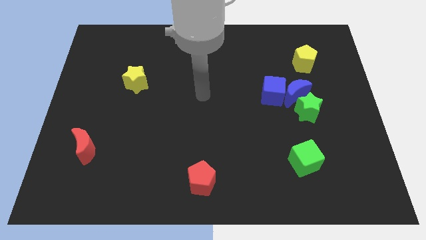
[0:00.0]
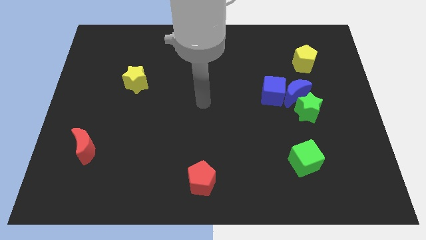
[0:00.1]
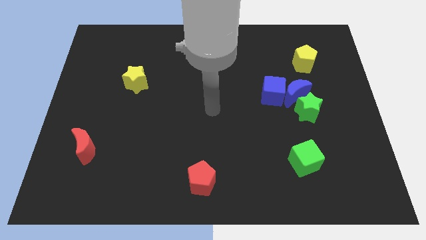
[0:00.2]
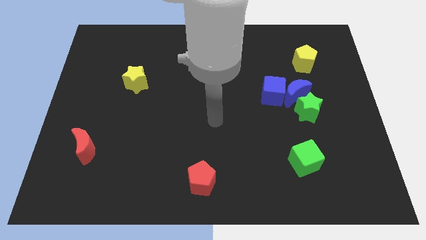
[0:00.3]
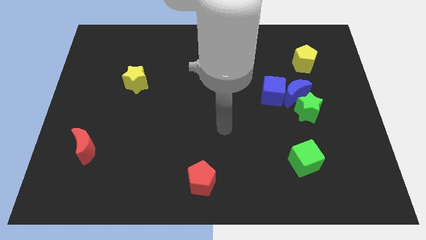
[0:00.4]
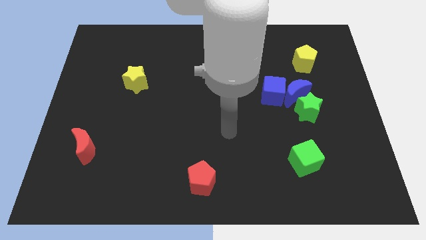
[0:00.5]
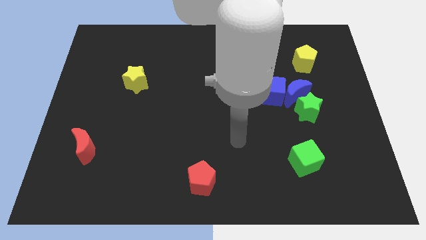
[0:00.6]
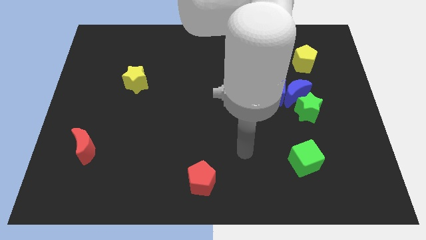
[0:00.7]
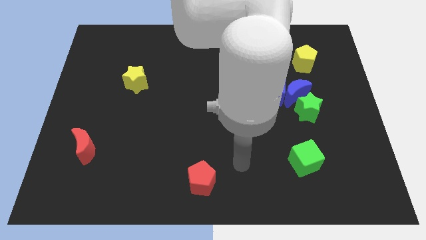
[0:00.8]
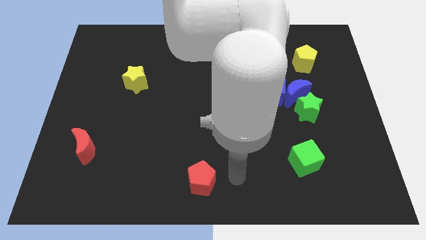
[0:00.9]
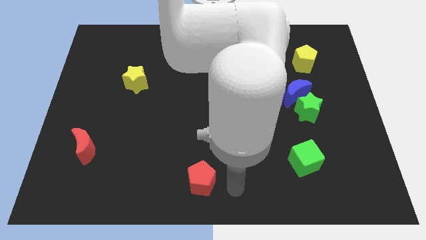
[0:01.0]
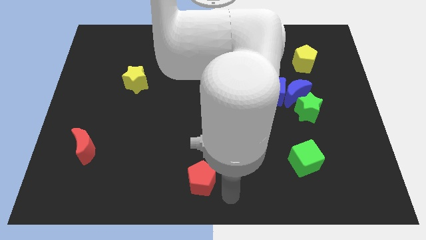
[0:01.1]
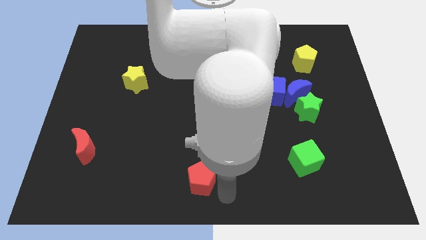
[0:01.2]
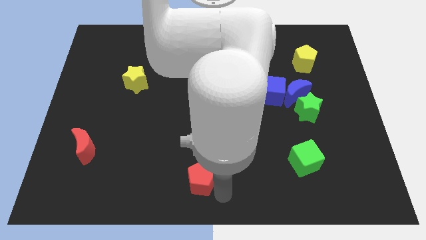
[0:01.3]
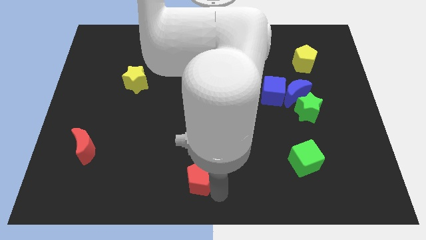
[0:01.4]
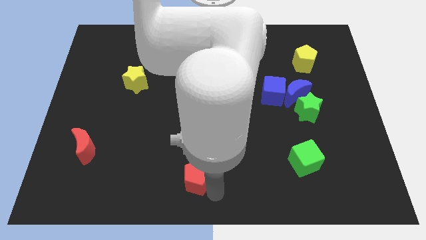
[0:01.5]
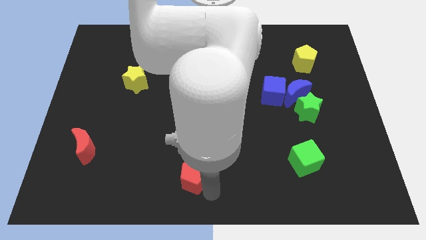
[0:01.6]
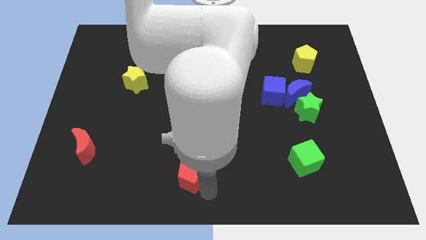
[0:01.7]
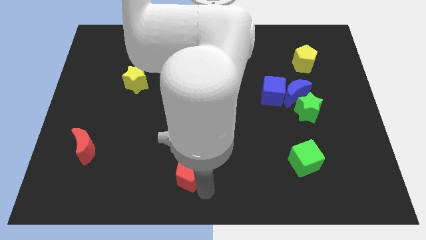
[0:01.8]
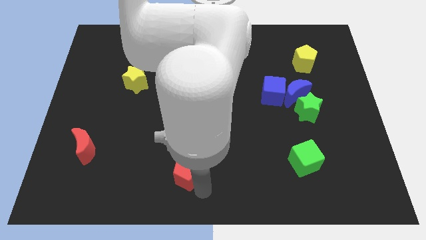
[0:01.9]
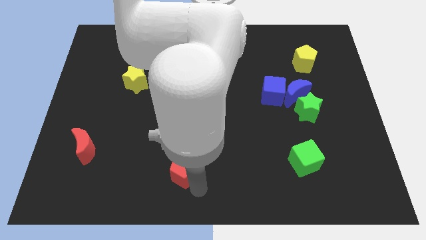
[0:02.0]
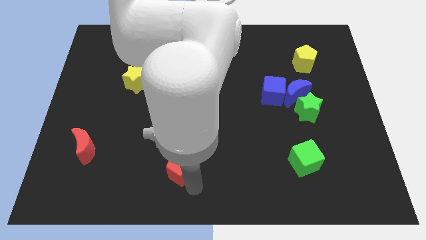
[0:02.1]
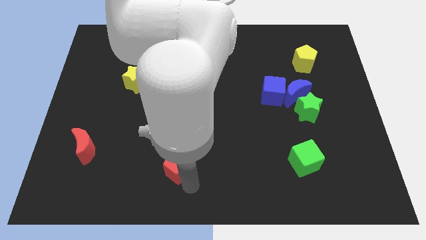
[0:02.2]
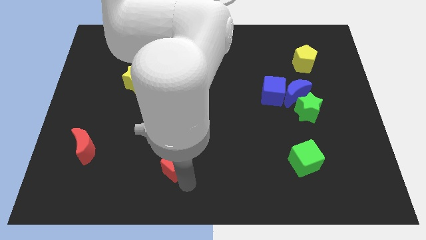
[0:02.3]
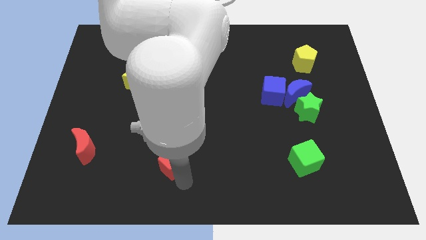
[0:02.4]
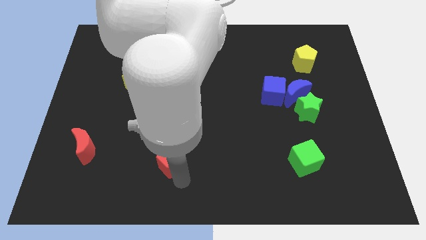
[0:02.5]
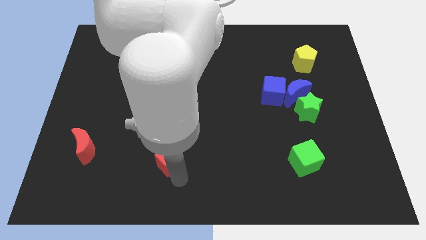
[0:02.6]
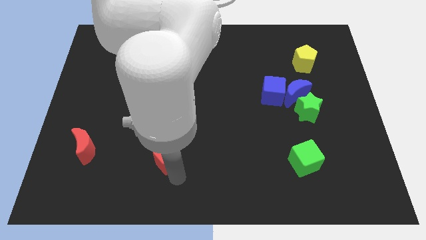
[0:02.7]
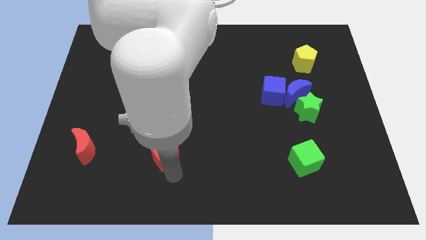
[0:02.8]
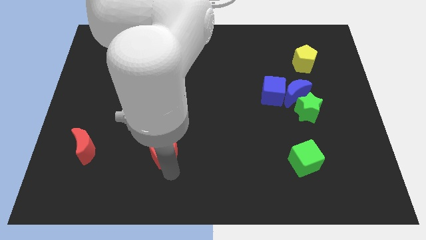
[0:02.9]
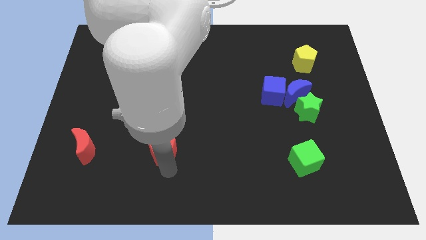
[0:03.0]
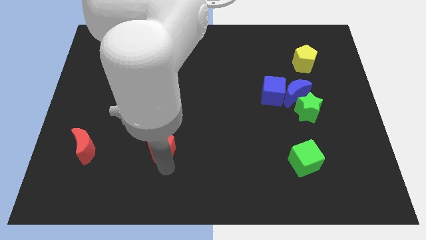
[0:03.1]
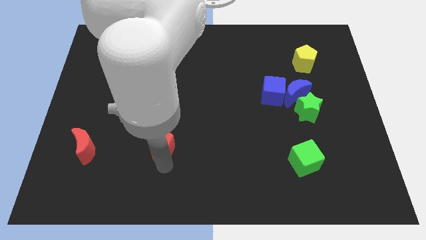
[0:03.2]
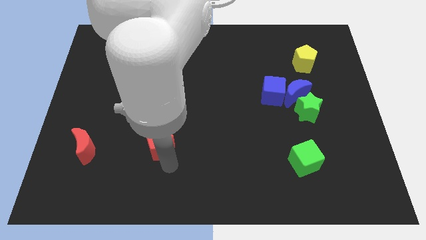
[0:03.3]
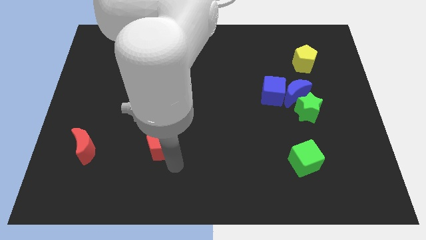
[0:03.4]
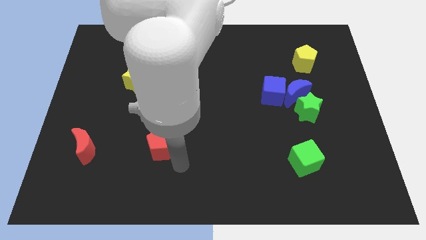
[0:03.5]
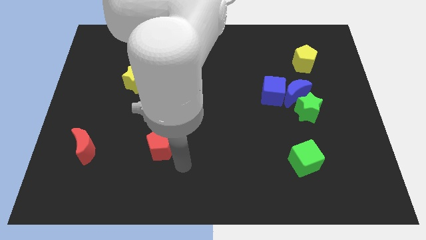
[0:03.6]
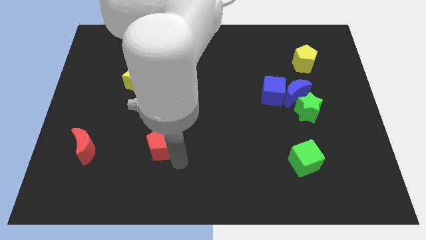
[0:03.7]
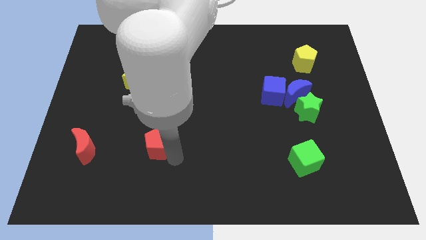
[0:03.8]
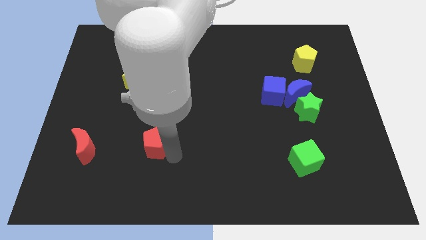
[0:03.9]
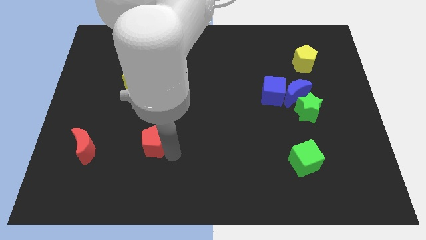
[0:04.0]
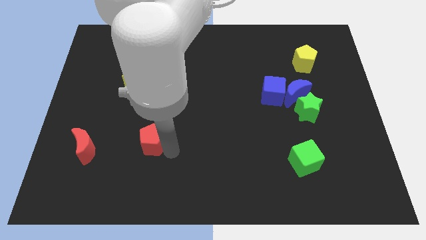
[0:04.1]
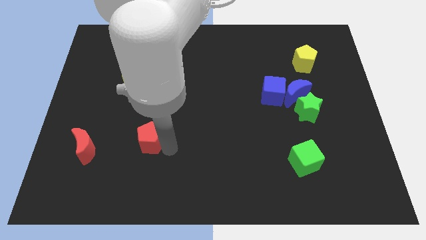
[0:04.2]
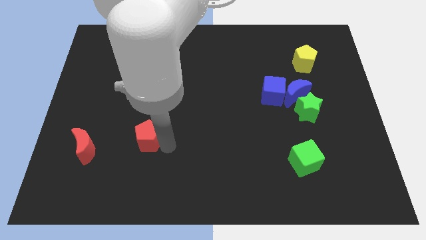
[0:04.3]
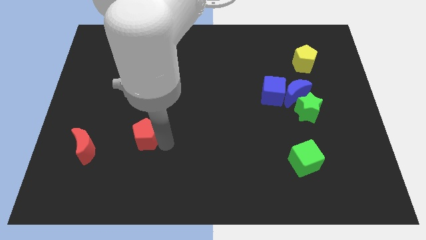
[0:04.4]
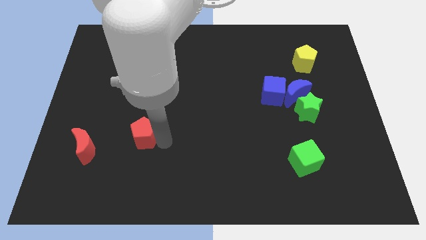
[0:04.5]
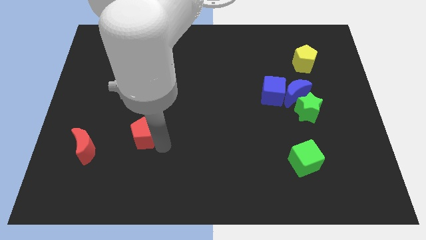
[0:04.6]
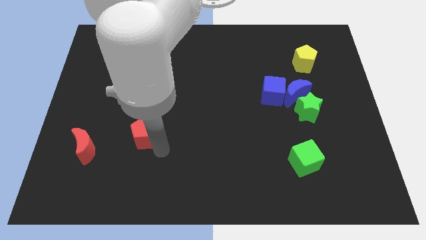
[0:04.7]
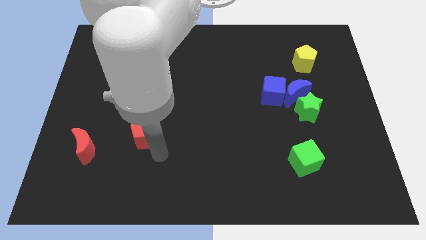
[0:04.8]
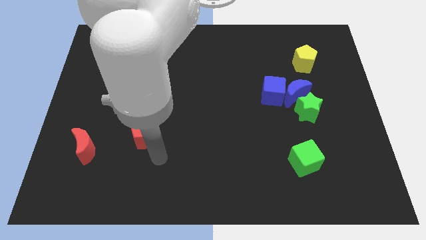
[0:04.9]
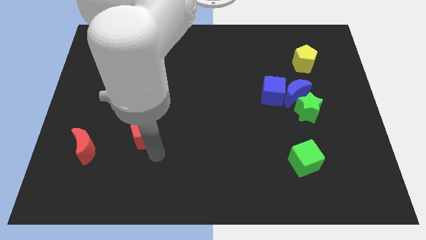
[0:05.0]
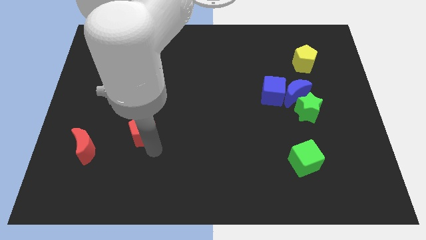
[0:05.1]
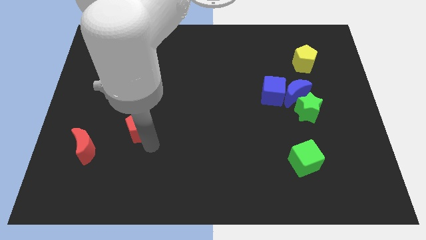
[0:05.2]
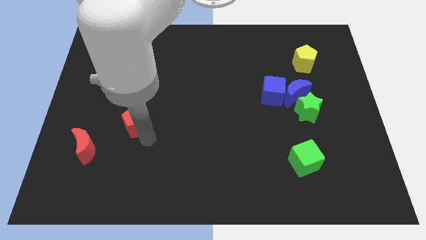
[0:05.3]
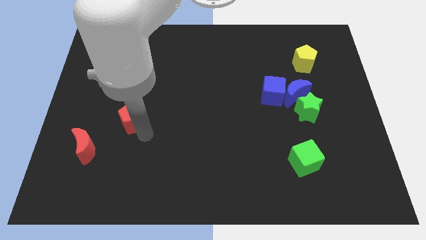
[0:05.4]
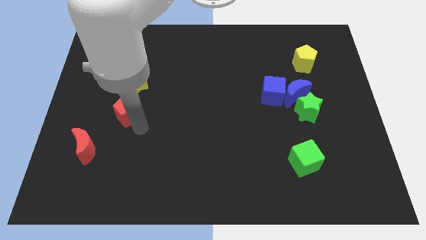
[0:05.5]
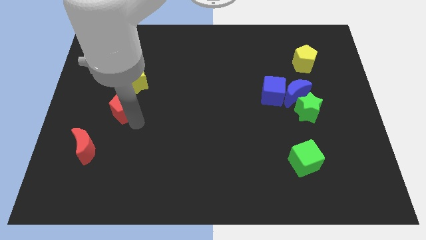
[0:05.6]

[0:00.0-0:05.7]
put the red pentagon to the bottom left side of the yellow star
